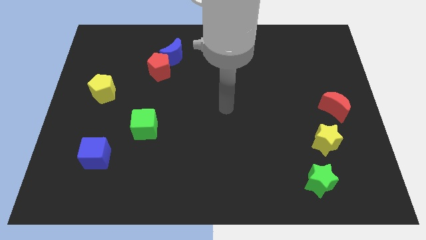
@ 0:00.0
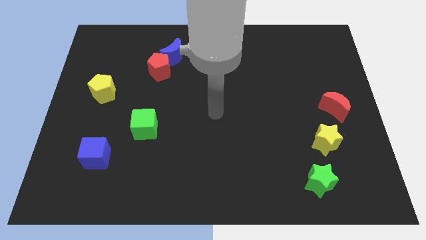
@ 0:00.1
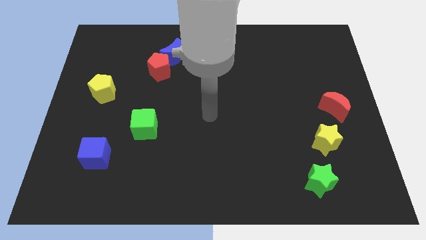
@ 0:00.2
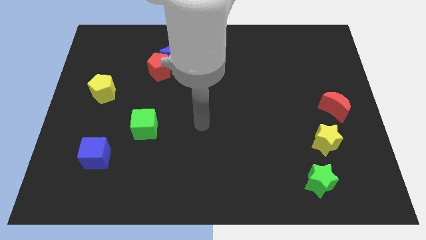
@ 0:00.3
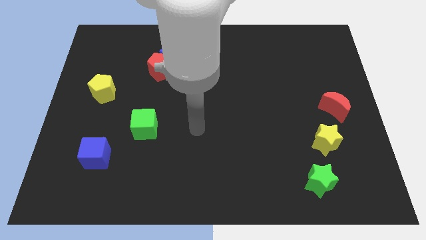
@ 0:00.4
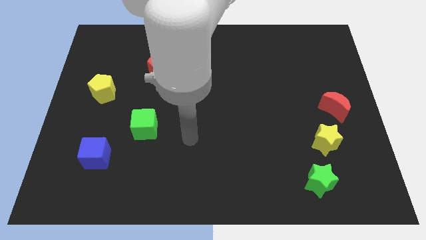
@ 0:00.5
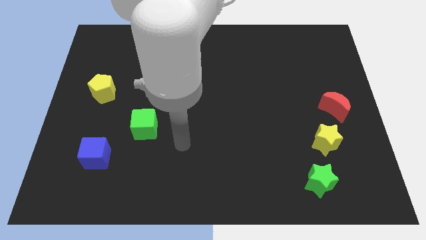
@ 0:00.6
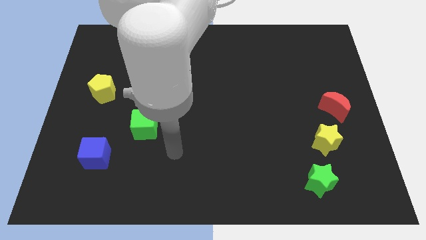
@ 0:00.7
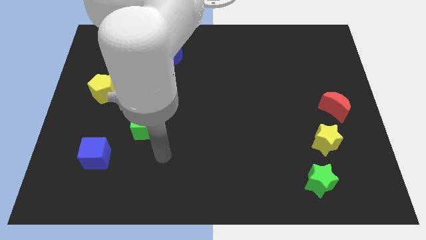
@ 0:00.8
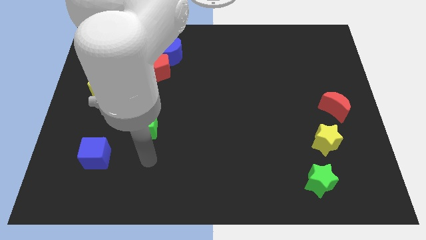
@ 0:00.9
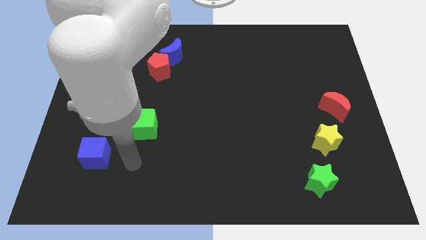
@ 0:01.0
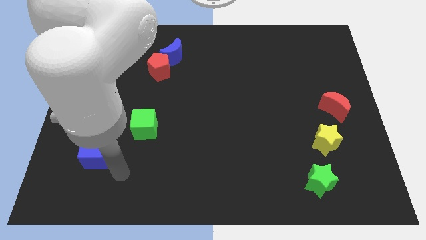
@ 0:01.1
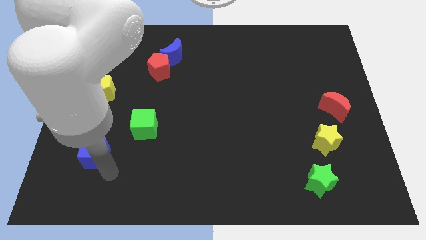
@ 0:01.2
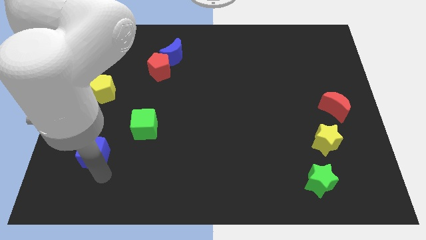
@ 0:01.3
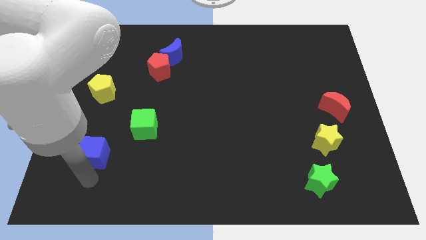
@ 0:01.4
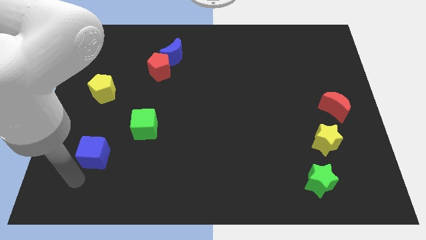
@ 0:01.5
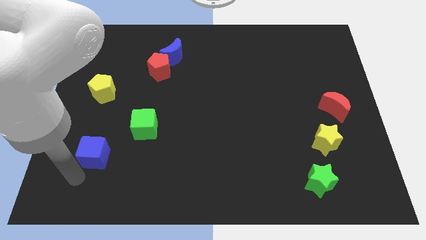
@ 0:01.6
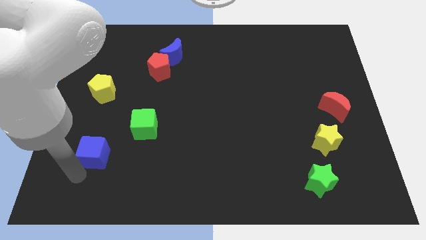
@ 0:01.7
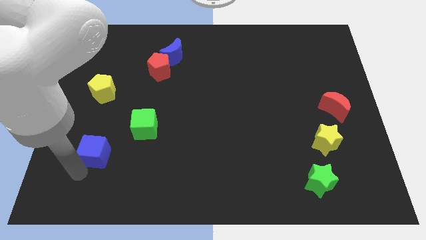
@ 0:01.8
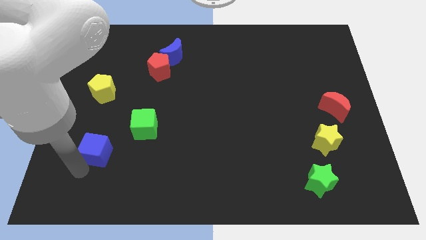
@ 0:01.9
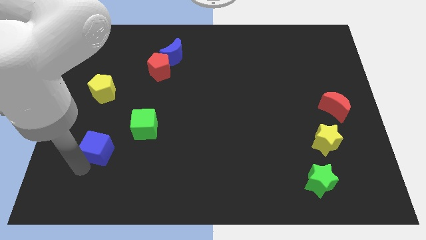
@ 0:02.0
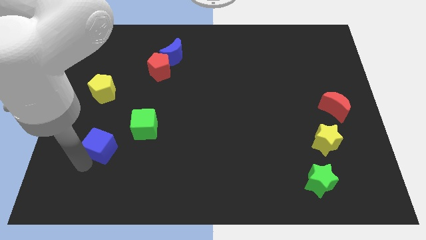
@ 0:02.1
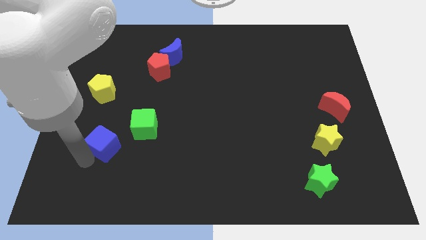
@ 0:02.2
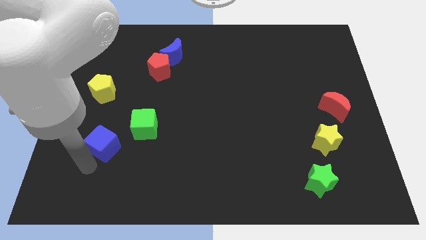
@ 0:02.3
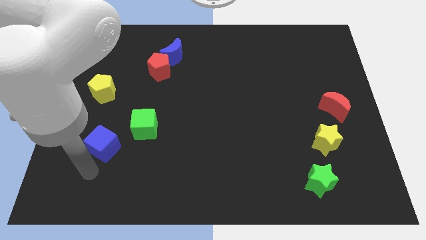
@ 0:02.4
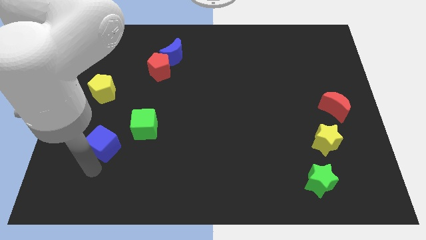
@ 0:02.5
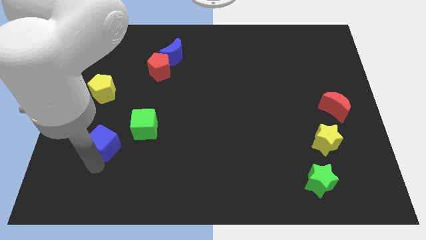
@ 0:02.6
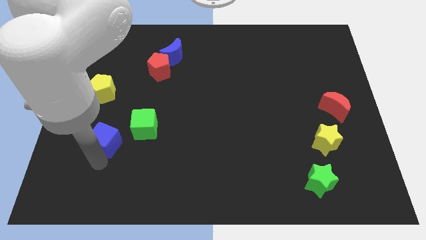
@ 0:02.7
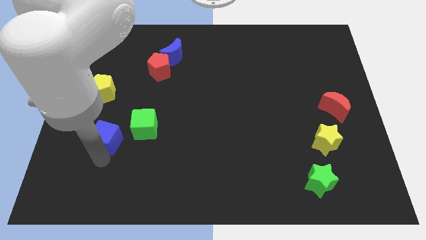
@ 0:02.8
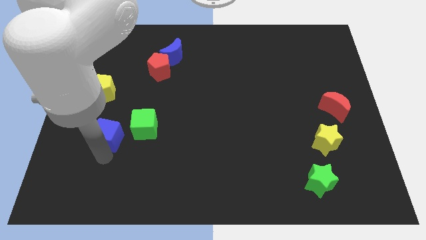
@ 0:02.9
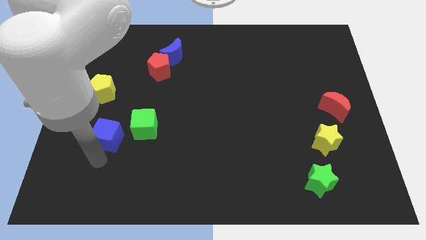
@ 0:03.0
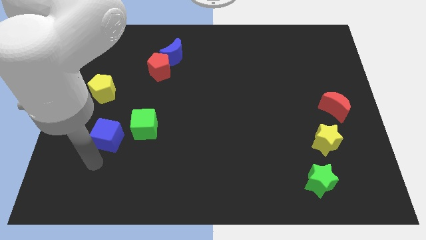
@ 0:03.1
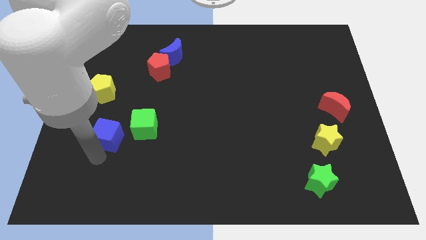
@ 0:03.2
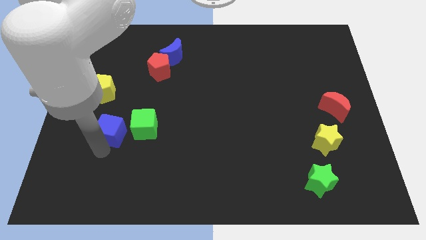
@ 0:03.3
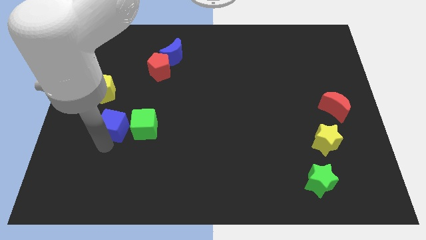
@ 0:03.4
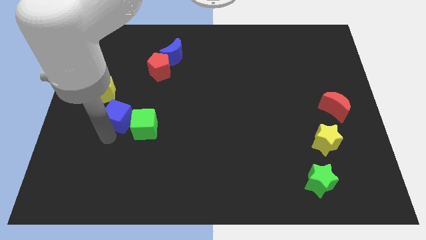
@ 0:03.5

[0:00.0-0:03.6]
slide the blue cube somewhat upwards and then to the right

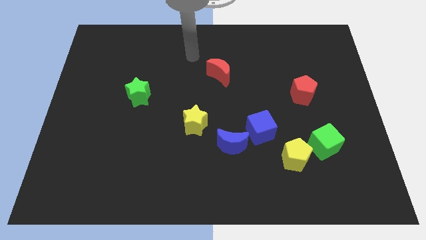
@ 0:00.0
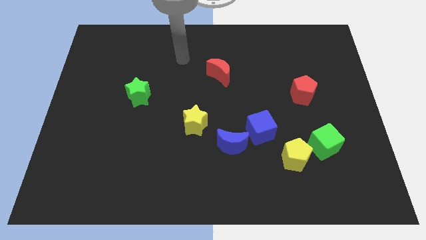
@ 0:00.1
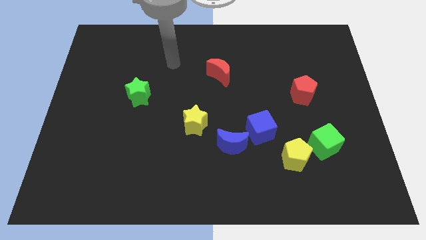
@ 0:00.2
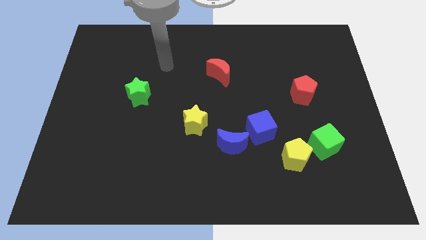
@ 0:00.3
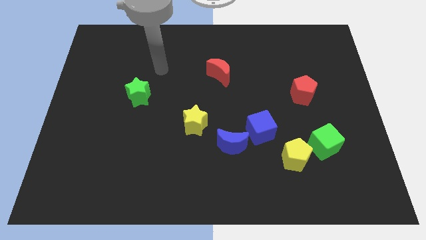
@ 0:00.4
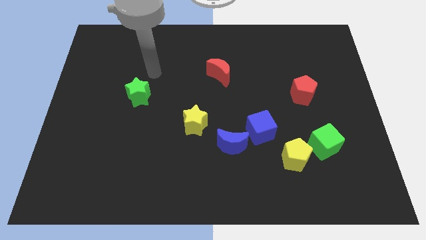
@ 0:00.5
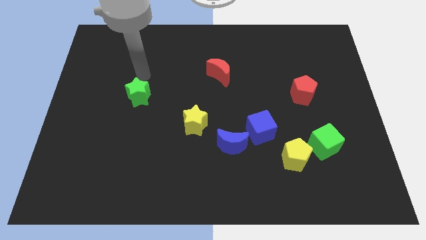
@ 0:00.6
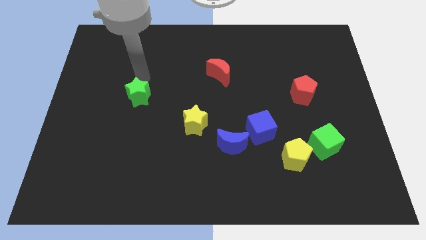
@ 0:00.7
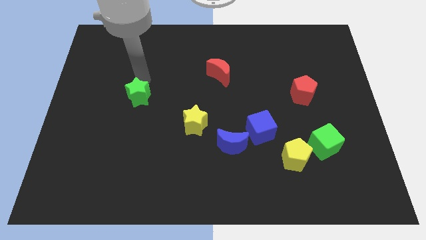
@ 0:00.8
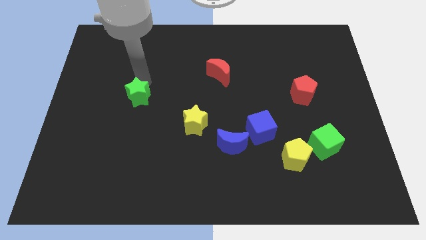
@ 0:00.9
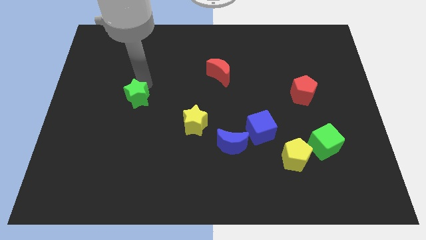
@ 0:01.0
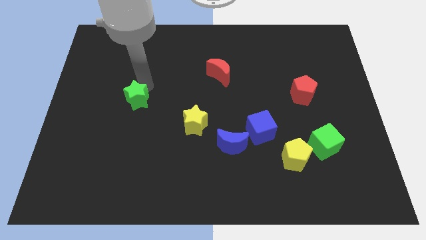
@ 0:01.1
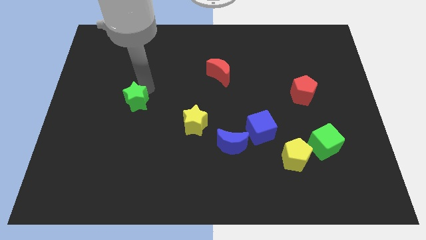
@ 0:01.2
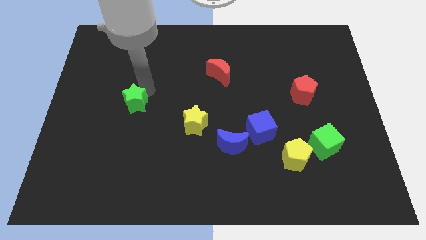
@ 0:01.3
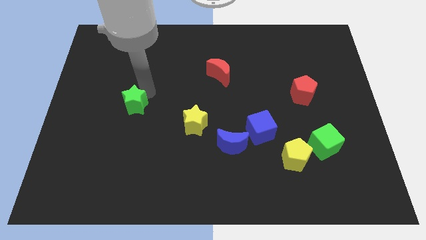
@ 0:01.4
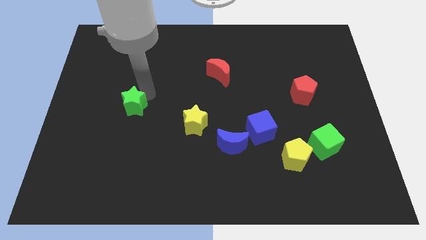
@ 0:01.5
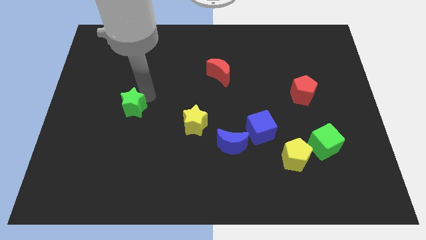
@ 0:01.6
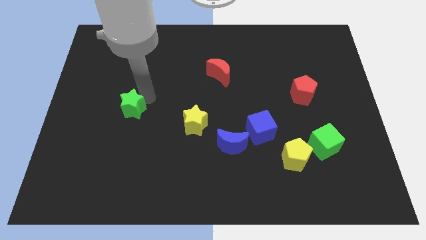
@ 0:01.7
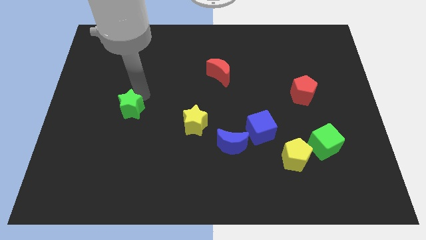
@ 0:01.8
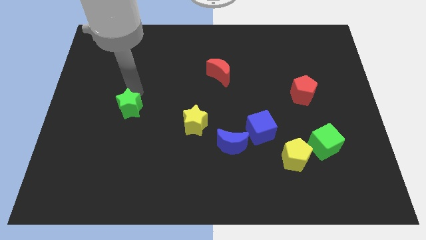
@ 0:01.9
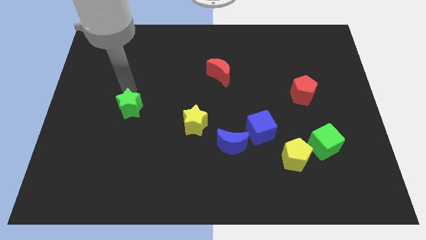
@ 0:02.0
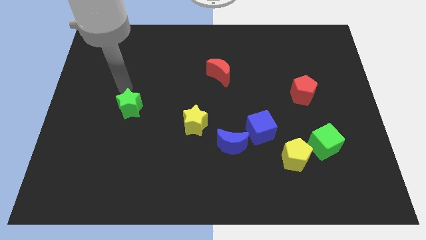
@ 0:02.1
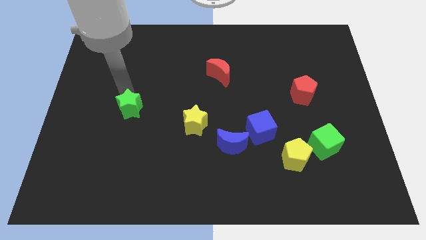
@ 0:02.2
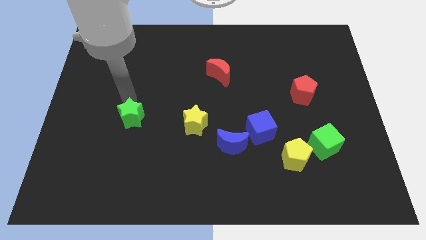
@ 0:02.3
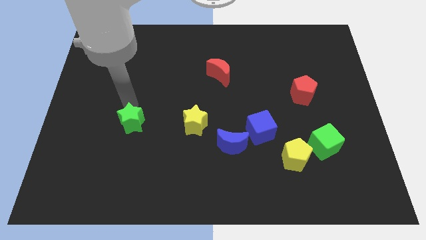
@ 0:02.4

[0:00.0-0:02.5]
move the green star a little bit down

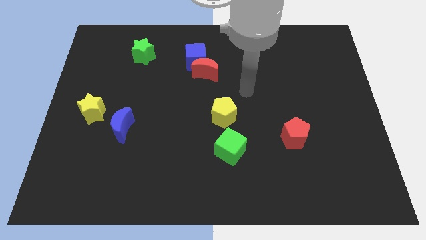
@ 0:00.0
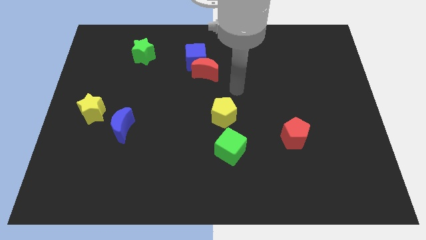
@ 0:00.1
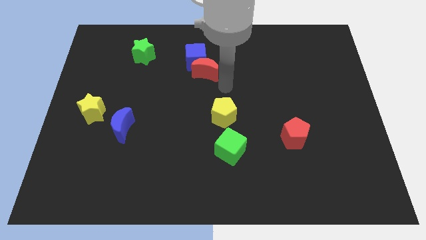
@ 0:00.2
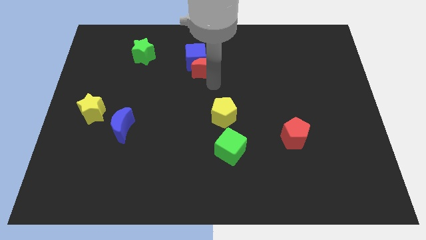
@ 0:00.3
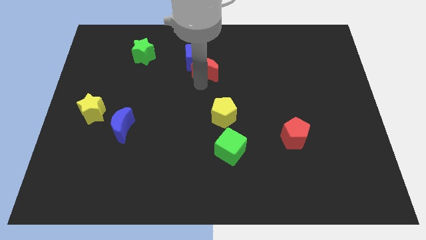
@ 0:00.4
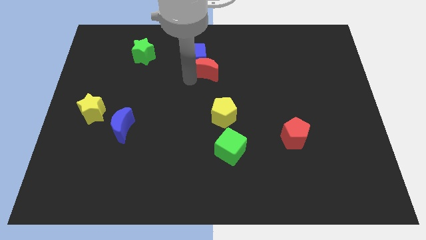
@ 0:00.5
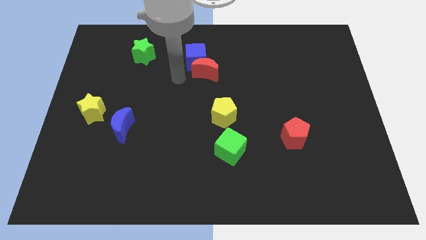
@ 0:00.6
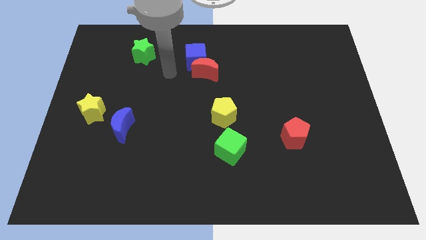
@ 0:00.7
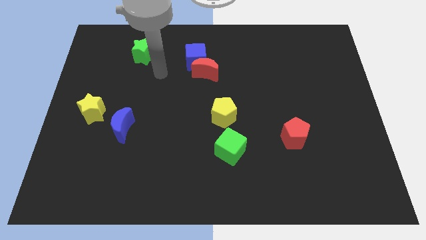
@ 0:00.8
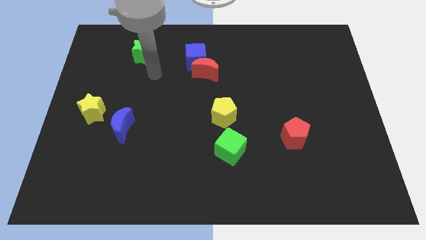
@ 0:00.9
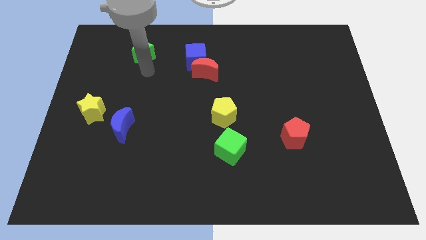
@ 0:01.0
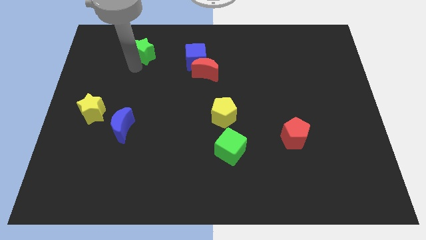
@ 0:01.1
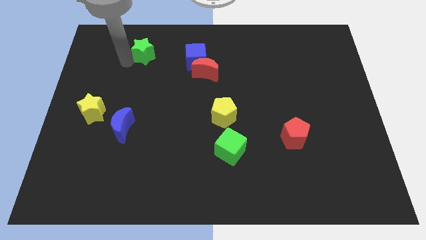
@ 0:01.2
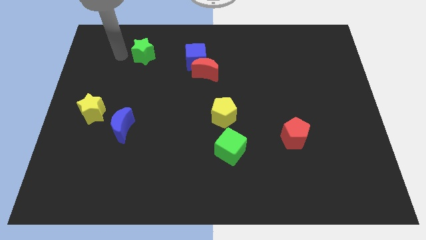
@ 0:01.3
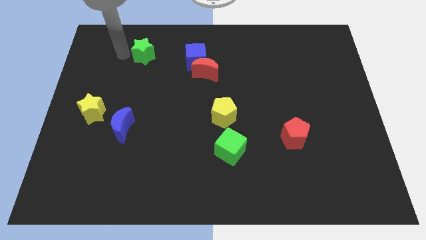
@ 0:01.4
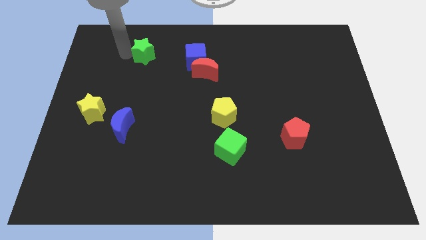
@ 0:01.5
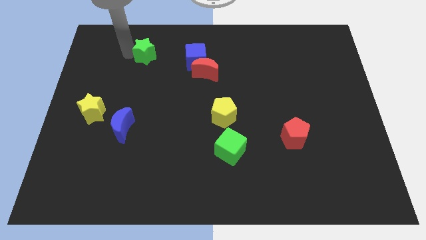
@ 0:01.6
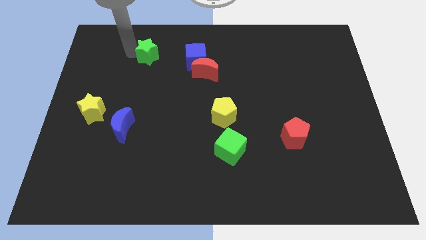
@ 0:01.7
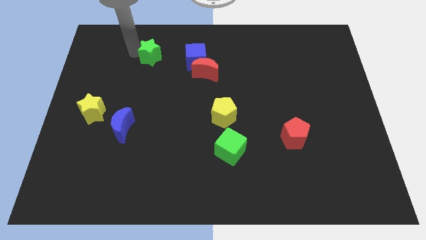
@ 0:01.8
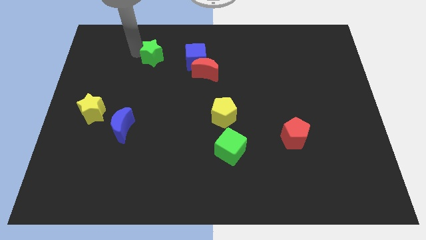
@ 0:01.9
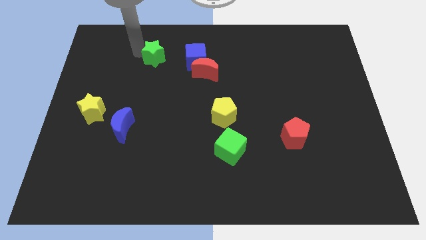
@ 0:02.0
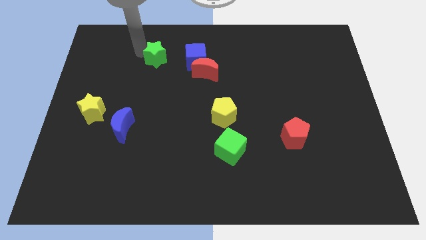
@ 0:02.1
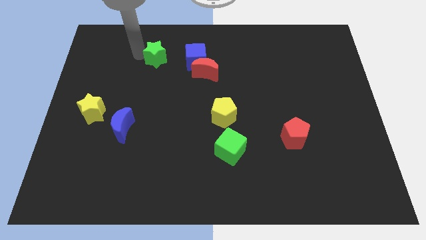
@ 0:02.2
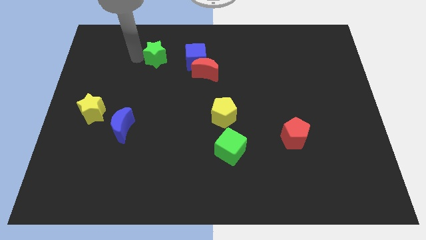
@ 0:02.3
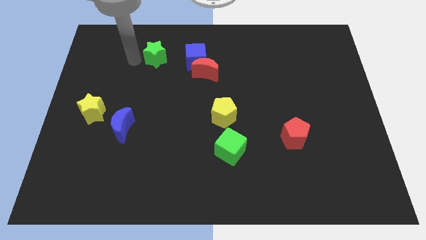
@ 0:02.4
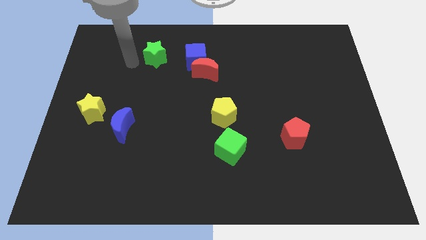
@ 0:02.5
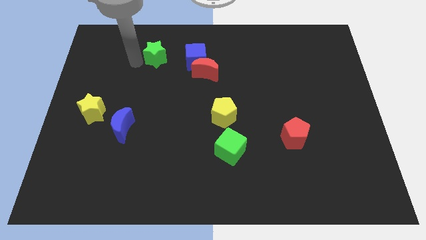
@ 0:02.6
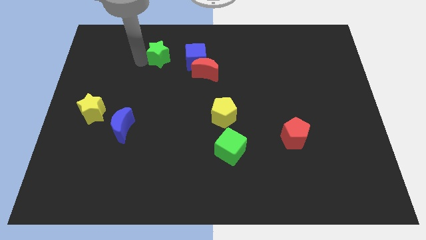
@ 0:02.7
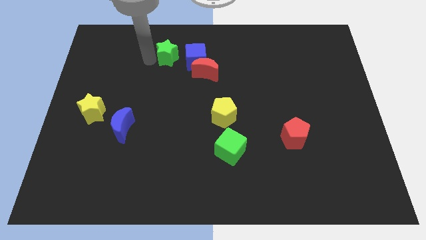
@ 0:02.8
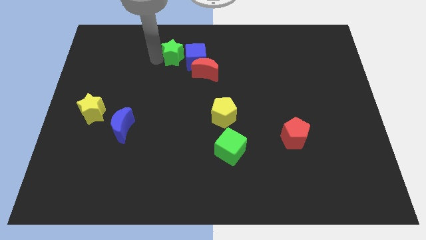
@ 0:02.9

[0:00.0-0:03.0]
push the green star right a bit
